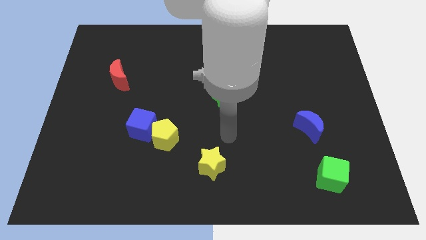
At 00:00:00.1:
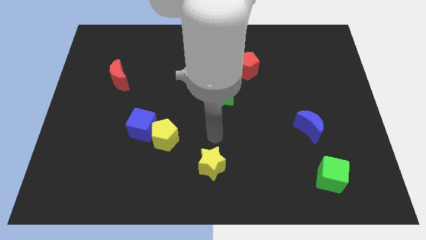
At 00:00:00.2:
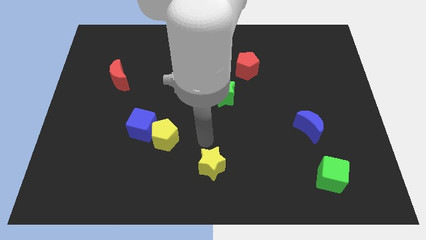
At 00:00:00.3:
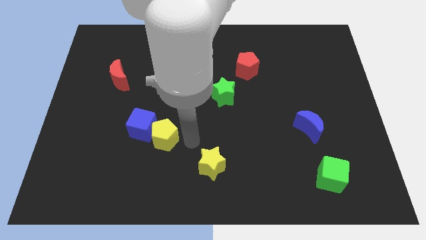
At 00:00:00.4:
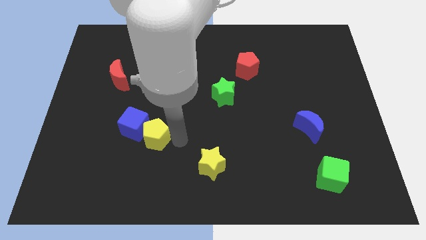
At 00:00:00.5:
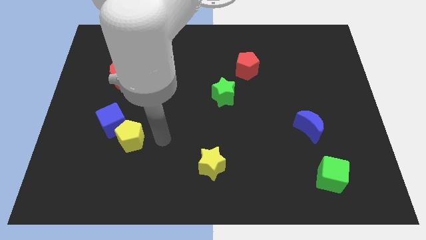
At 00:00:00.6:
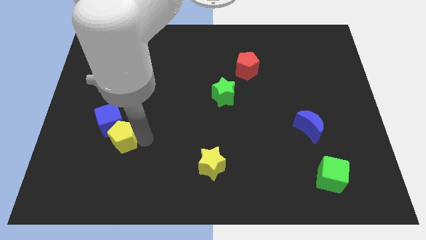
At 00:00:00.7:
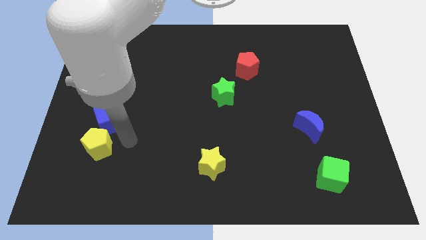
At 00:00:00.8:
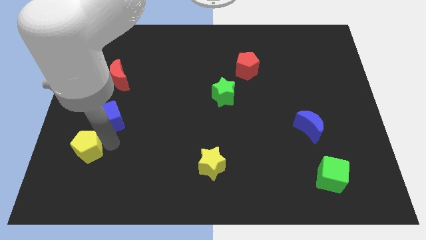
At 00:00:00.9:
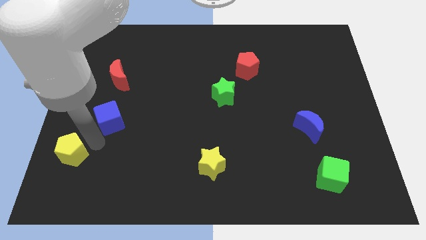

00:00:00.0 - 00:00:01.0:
pull the blue cube apart from the yellow pentagon

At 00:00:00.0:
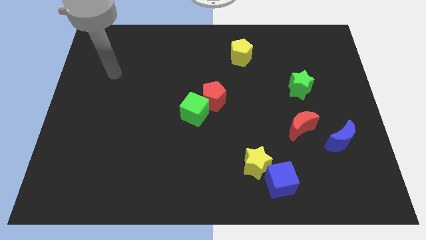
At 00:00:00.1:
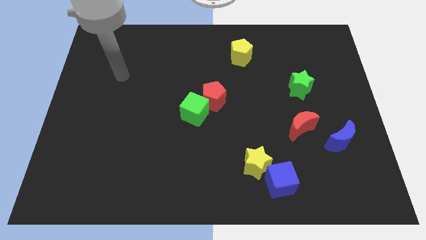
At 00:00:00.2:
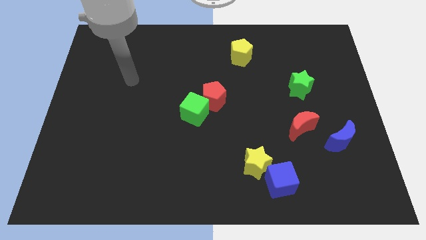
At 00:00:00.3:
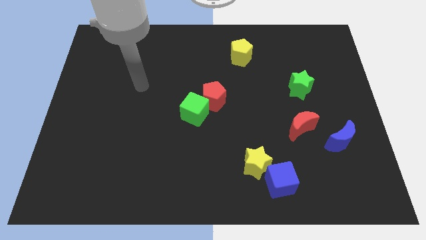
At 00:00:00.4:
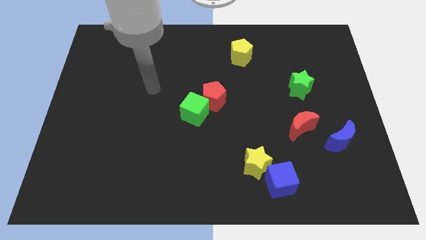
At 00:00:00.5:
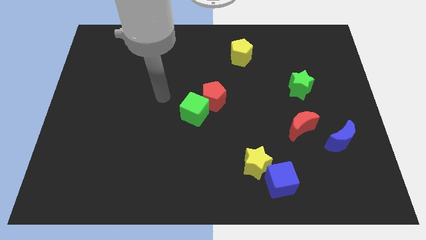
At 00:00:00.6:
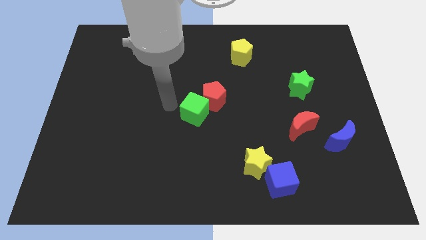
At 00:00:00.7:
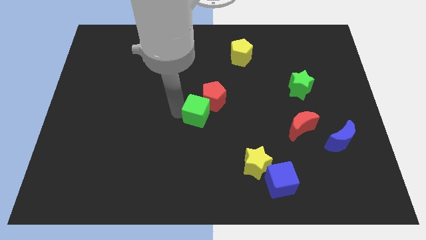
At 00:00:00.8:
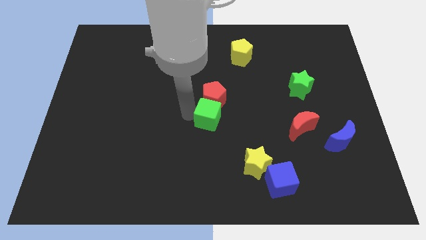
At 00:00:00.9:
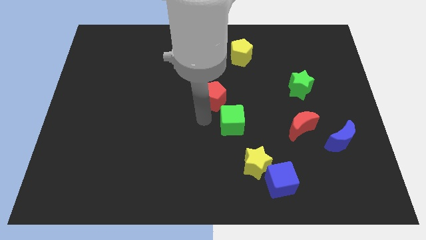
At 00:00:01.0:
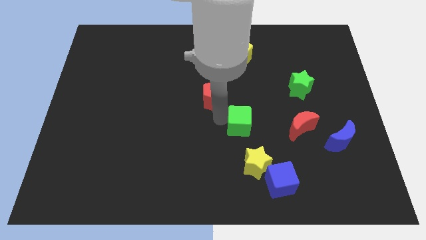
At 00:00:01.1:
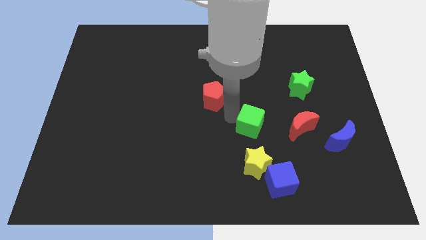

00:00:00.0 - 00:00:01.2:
pull the red pentagon apart from the green cube

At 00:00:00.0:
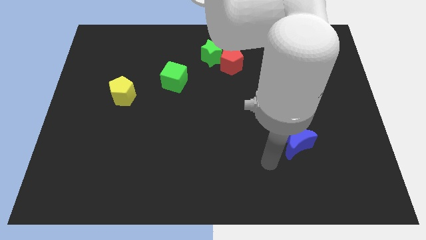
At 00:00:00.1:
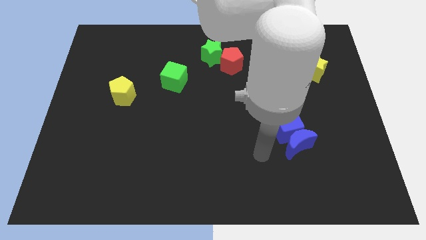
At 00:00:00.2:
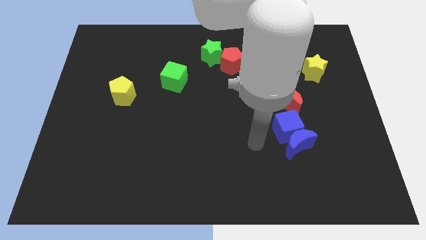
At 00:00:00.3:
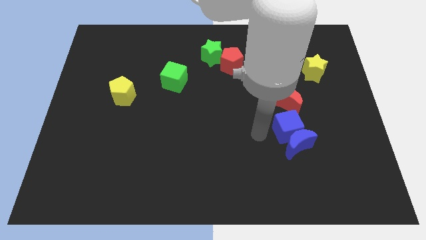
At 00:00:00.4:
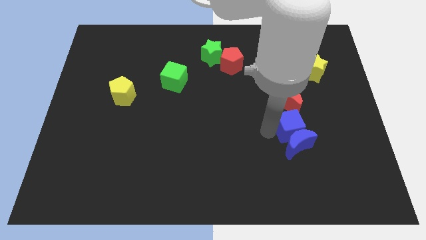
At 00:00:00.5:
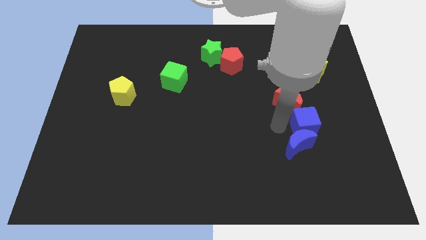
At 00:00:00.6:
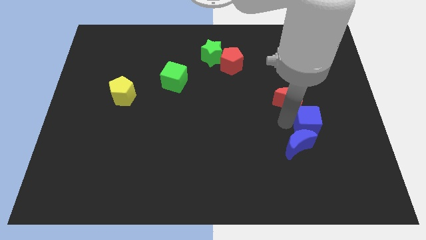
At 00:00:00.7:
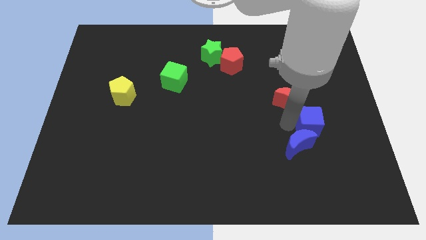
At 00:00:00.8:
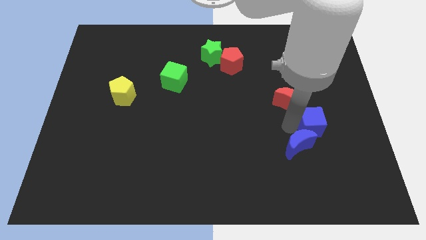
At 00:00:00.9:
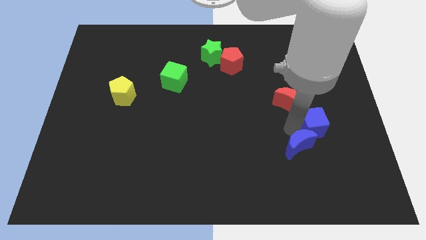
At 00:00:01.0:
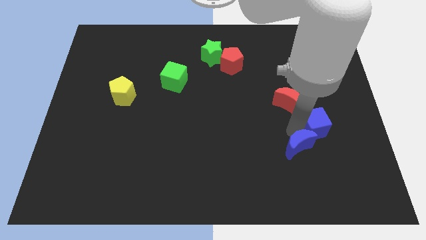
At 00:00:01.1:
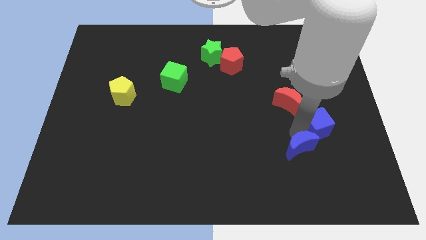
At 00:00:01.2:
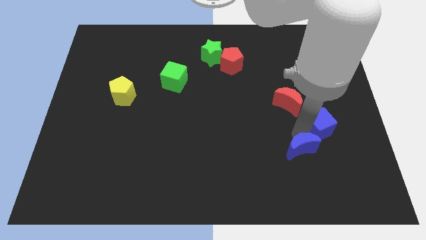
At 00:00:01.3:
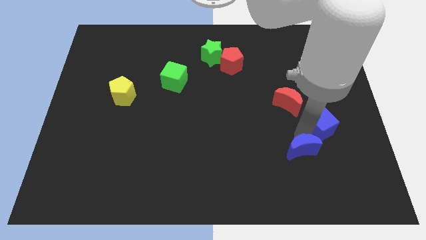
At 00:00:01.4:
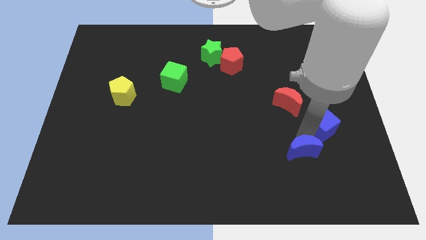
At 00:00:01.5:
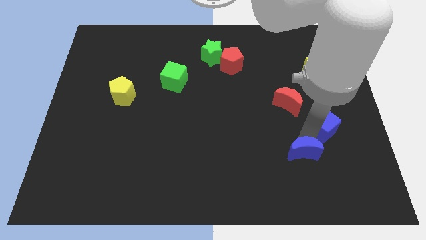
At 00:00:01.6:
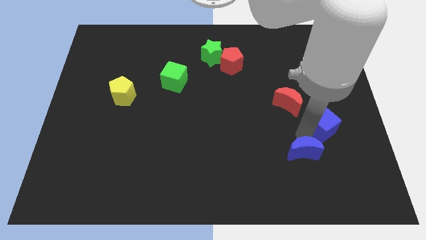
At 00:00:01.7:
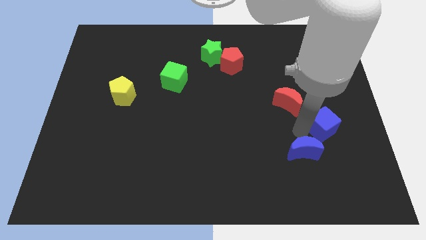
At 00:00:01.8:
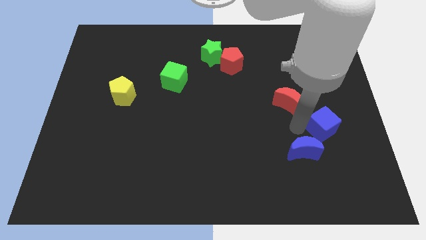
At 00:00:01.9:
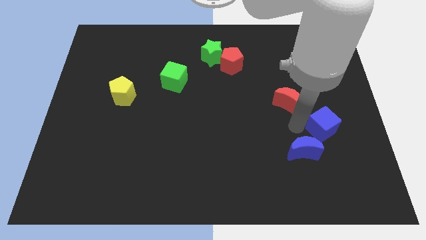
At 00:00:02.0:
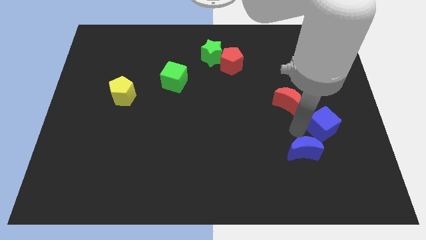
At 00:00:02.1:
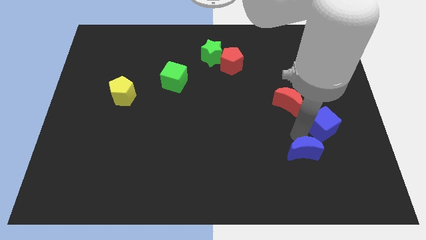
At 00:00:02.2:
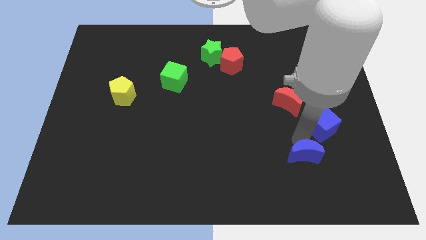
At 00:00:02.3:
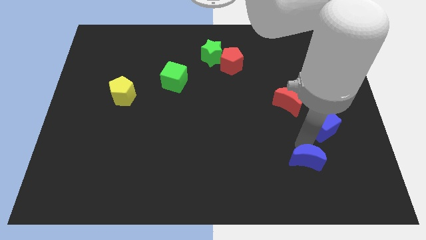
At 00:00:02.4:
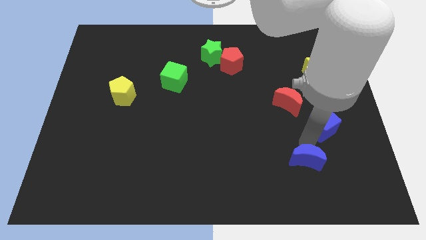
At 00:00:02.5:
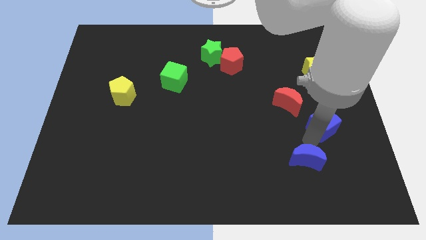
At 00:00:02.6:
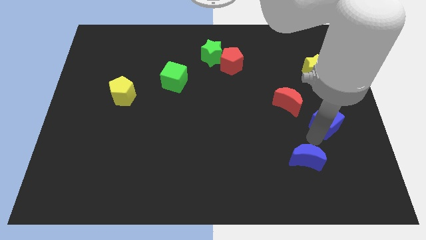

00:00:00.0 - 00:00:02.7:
separate the blue moon from the blue cube

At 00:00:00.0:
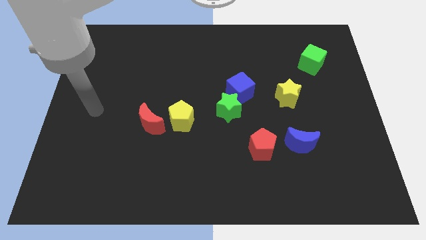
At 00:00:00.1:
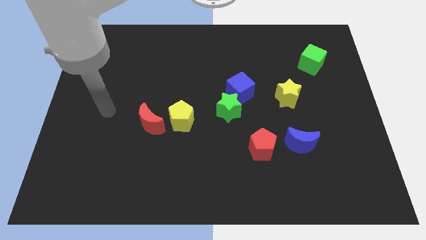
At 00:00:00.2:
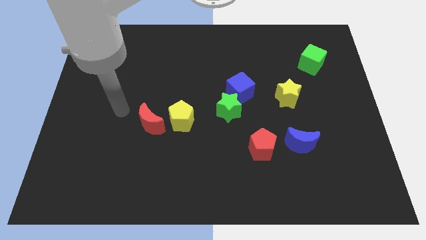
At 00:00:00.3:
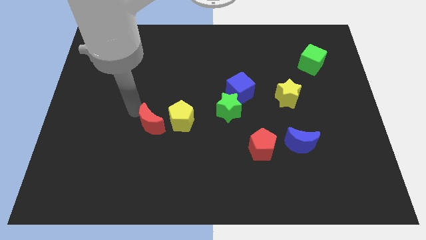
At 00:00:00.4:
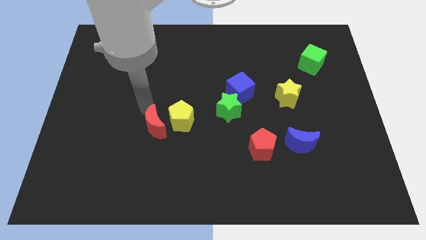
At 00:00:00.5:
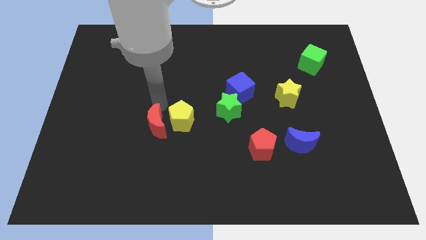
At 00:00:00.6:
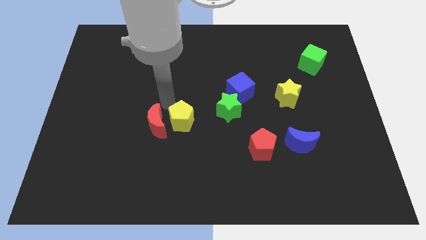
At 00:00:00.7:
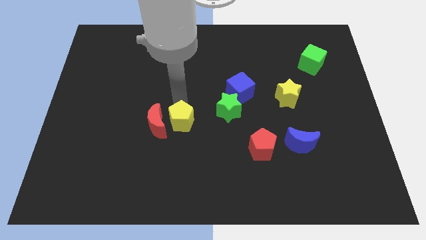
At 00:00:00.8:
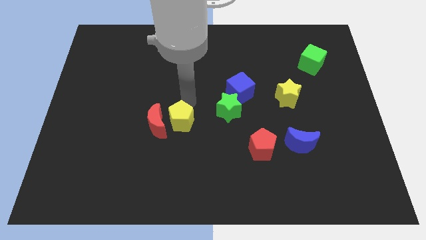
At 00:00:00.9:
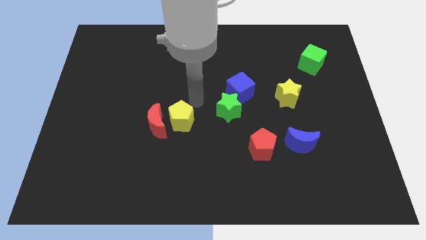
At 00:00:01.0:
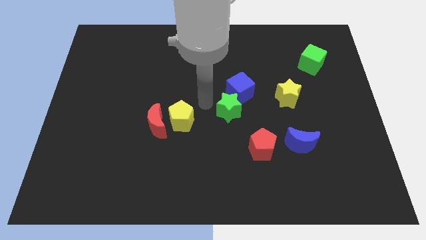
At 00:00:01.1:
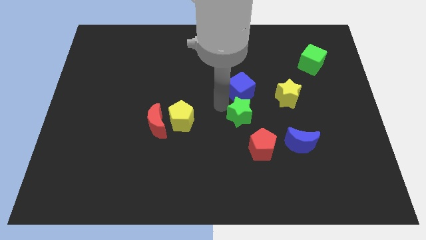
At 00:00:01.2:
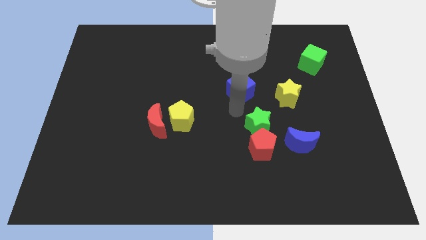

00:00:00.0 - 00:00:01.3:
move the blue cube away from the green star

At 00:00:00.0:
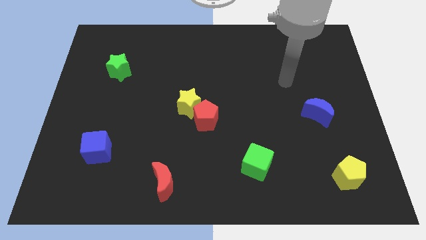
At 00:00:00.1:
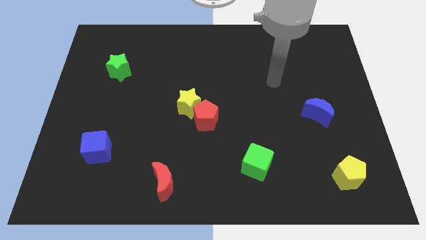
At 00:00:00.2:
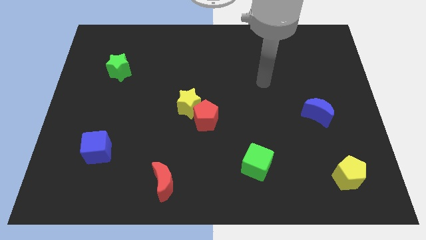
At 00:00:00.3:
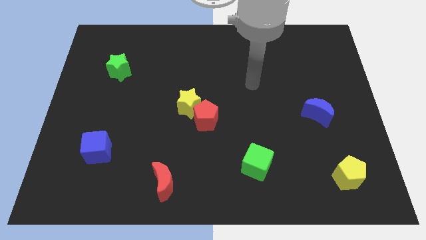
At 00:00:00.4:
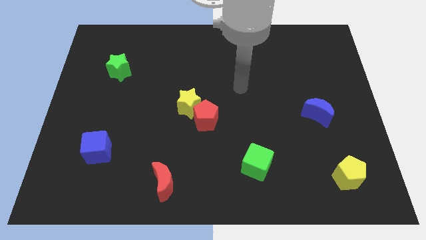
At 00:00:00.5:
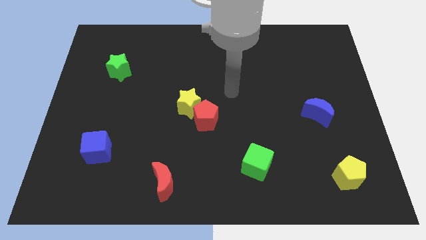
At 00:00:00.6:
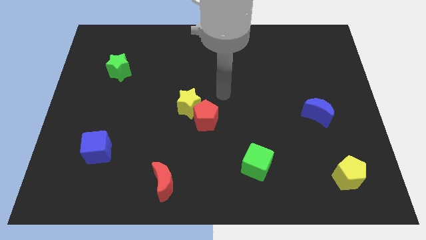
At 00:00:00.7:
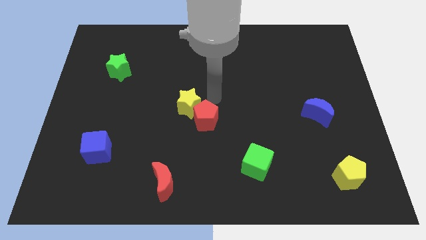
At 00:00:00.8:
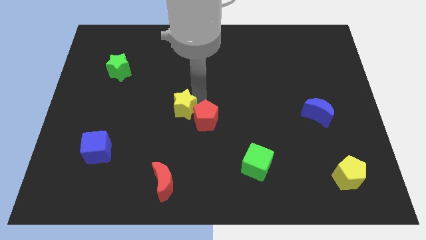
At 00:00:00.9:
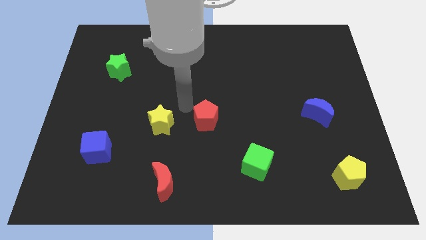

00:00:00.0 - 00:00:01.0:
pull the red pentagon apart from the yellow star

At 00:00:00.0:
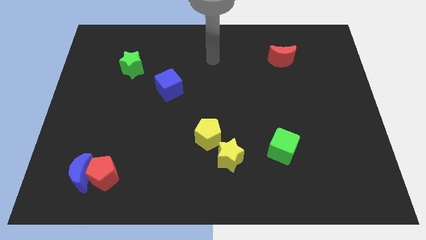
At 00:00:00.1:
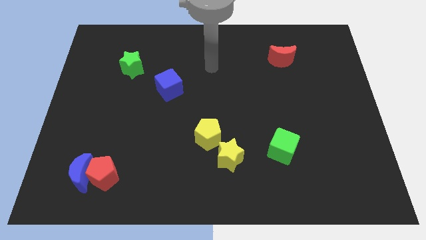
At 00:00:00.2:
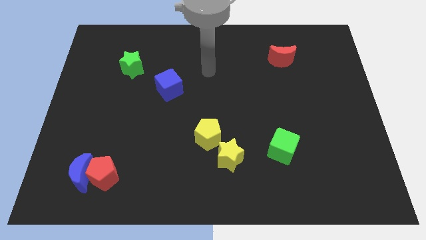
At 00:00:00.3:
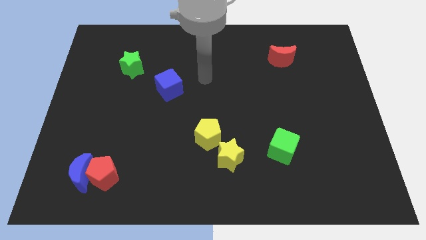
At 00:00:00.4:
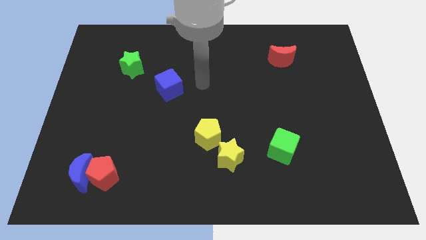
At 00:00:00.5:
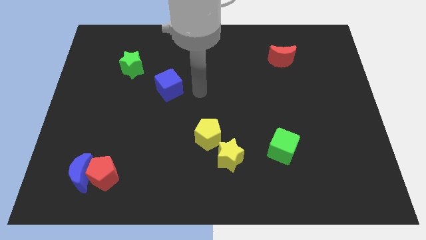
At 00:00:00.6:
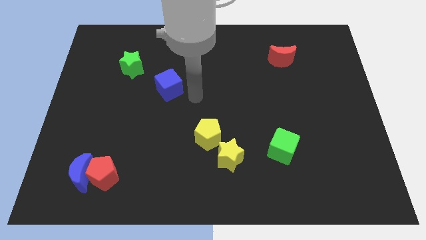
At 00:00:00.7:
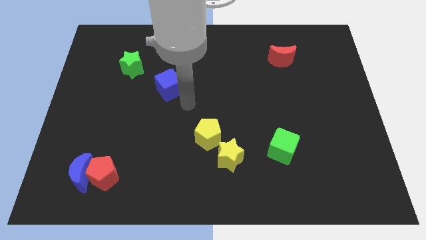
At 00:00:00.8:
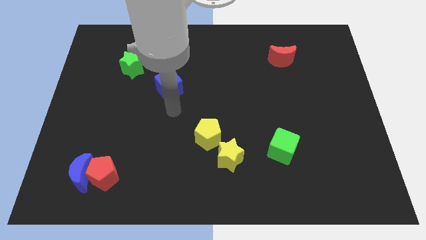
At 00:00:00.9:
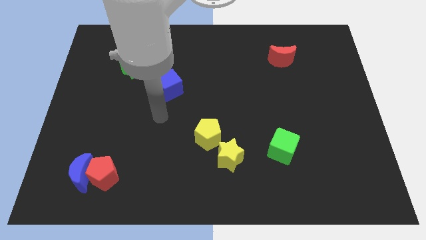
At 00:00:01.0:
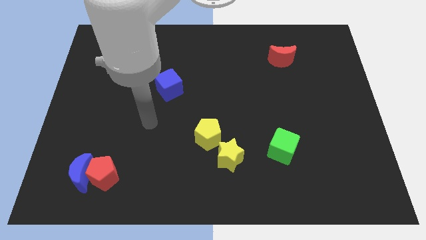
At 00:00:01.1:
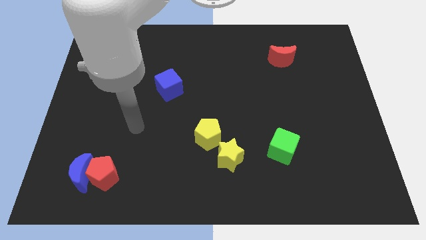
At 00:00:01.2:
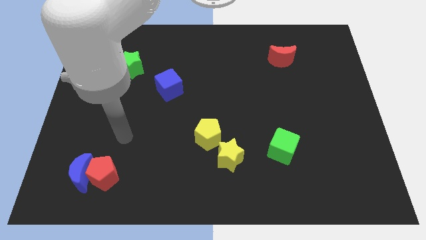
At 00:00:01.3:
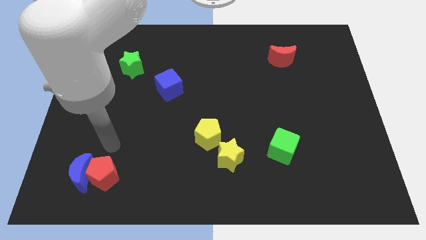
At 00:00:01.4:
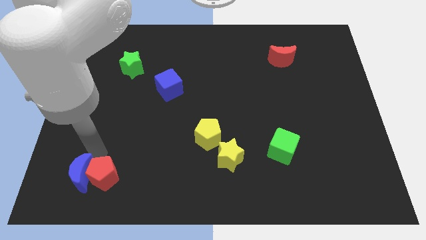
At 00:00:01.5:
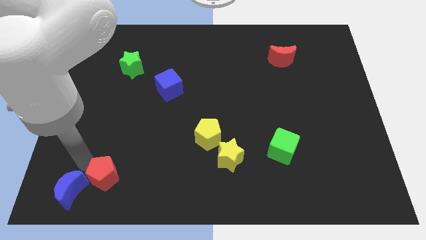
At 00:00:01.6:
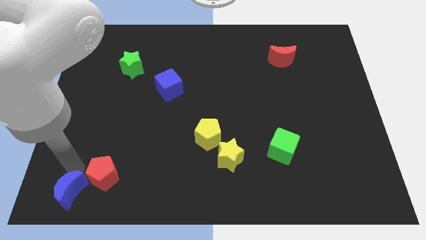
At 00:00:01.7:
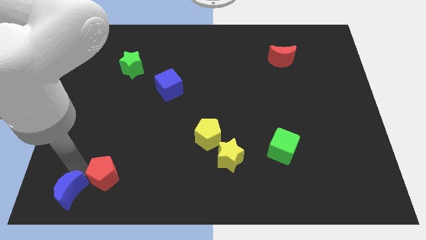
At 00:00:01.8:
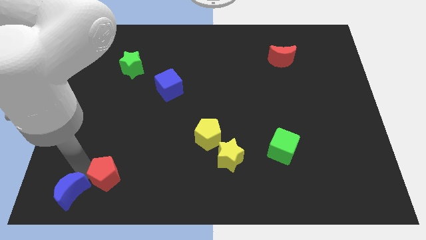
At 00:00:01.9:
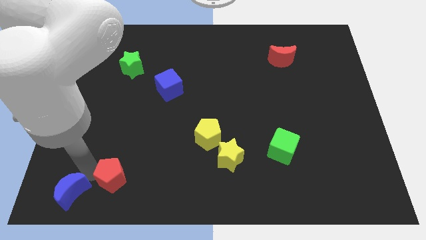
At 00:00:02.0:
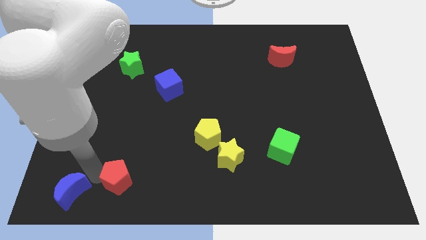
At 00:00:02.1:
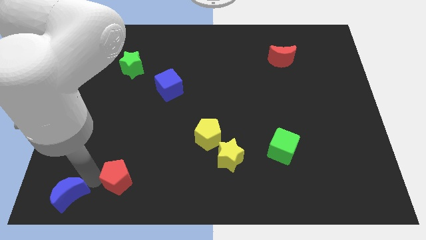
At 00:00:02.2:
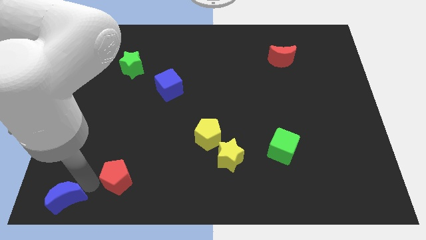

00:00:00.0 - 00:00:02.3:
pull the red pentagon apart from the blue moon
